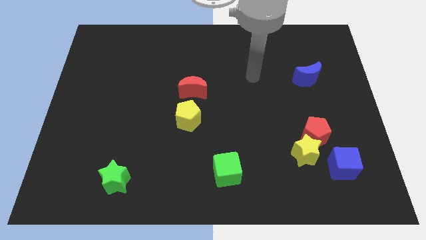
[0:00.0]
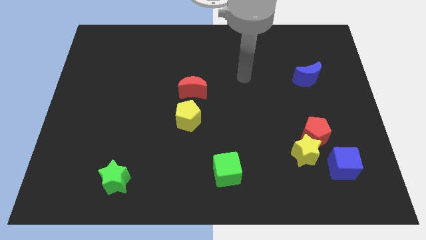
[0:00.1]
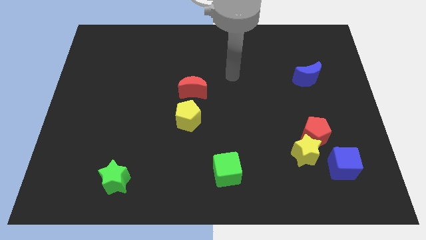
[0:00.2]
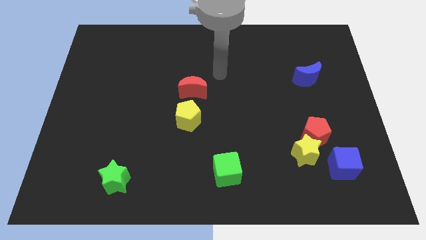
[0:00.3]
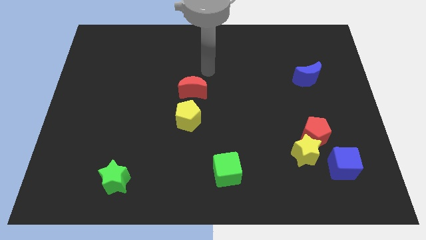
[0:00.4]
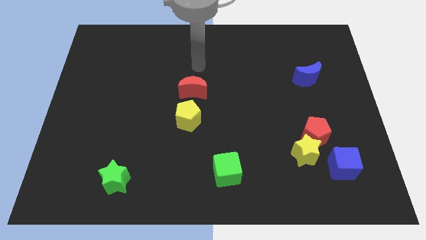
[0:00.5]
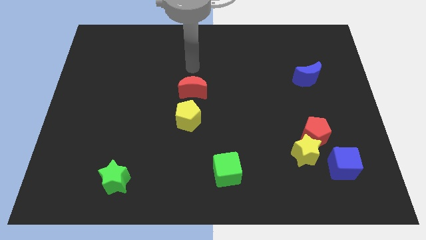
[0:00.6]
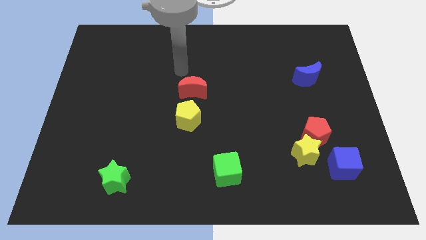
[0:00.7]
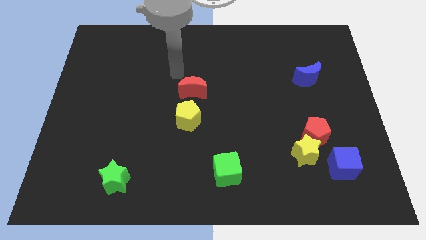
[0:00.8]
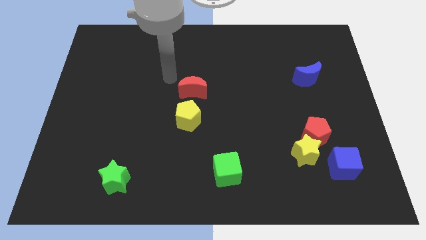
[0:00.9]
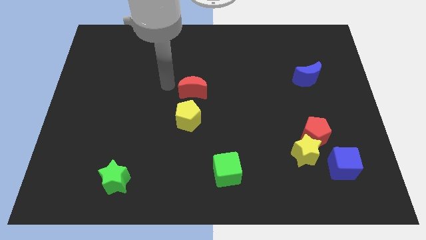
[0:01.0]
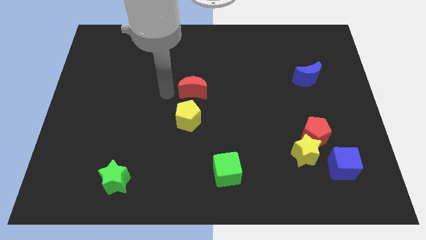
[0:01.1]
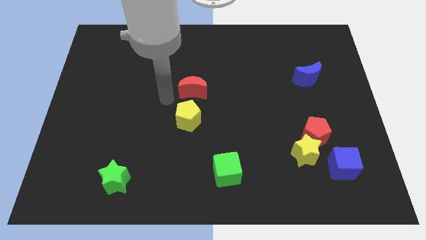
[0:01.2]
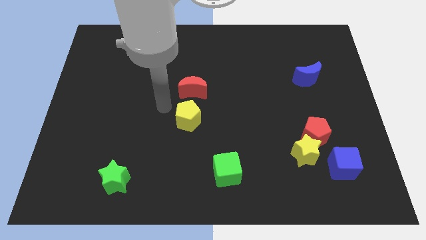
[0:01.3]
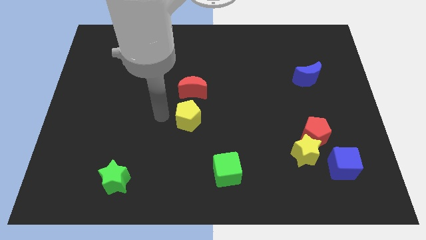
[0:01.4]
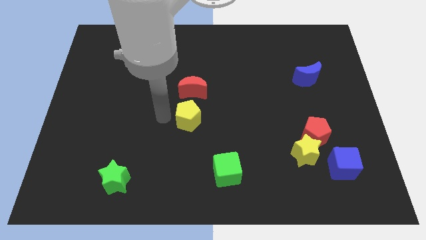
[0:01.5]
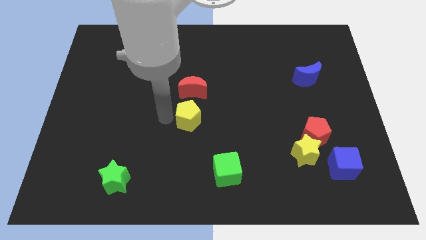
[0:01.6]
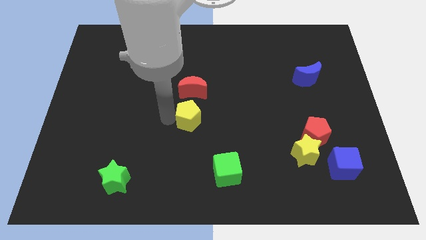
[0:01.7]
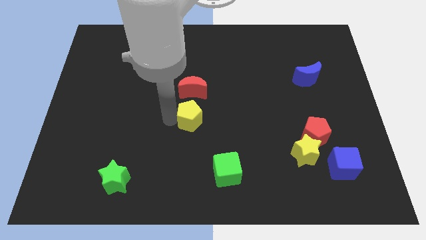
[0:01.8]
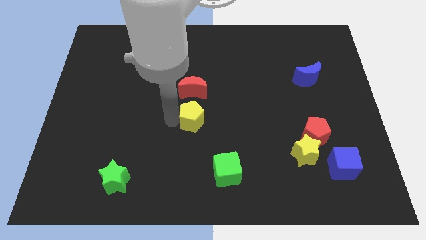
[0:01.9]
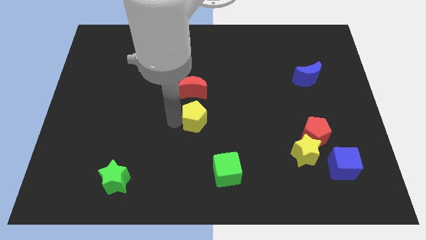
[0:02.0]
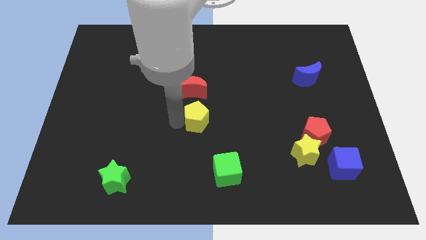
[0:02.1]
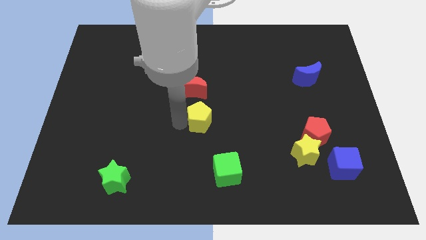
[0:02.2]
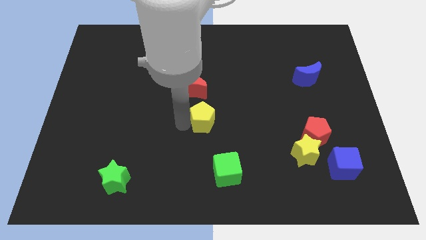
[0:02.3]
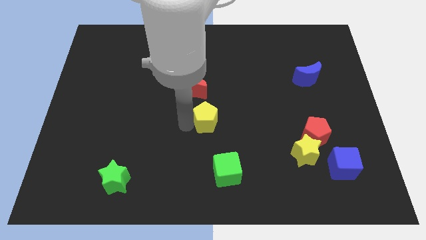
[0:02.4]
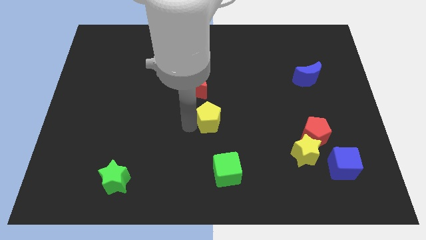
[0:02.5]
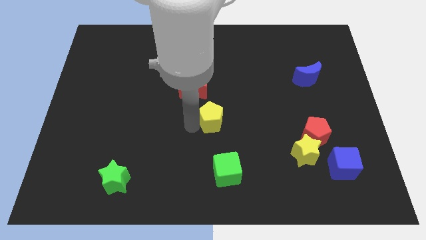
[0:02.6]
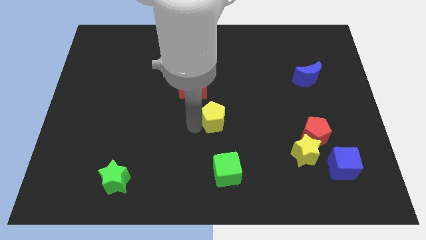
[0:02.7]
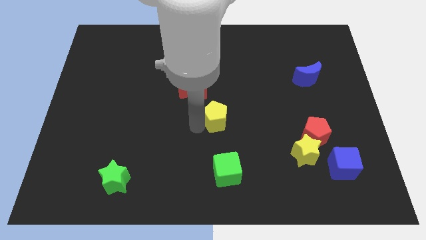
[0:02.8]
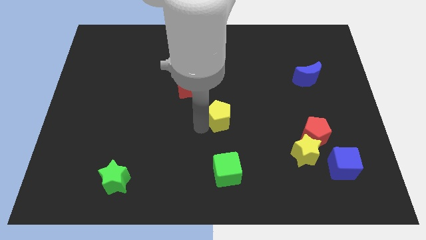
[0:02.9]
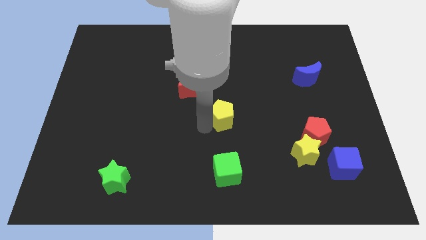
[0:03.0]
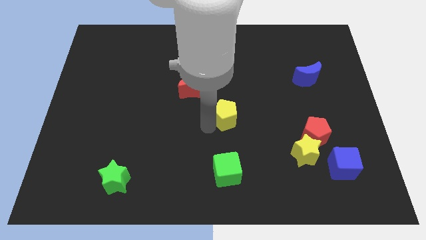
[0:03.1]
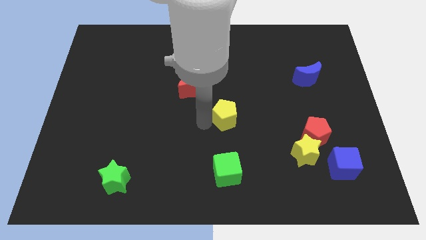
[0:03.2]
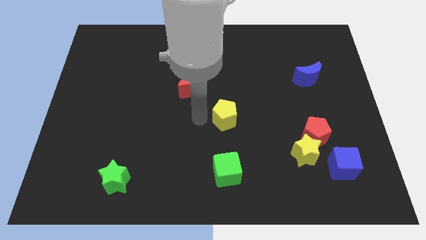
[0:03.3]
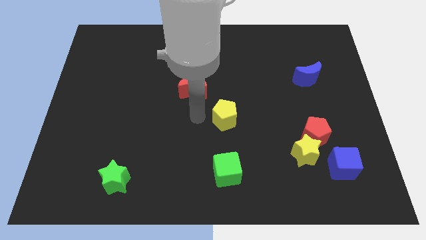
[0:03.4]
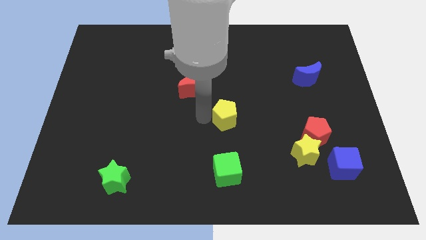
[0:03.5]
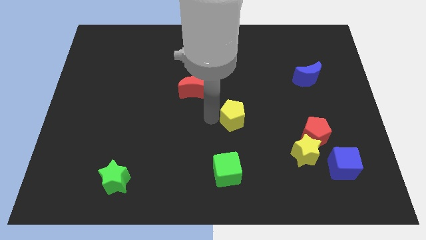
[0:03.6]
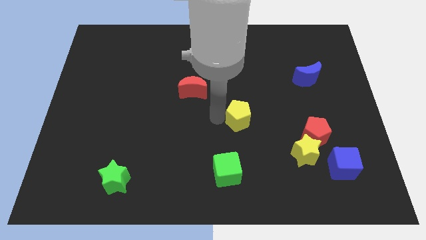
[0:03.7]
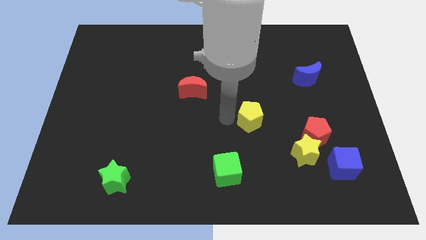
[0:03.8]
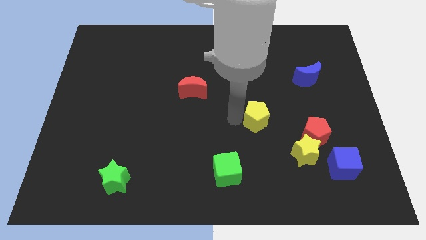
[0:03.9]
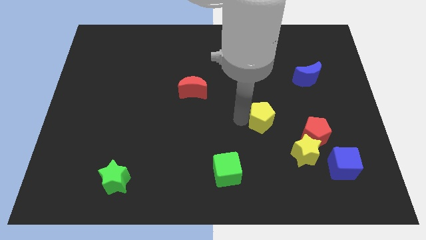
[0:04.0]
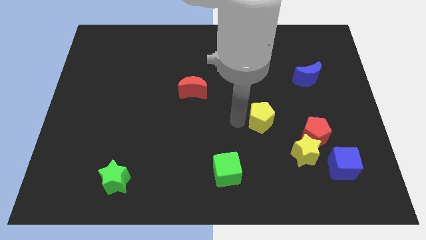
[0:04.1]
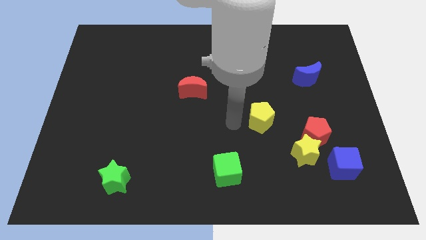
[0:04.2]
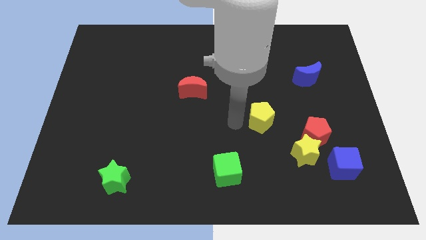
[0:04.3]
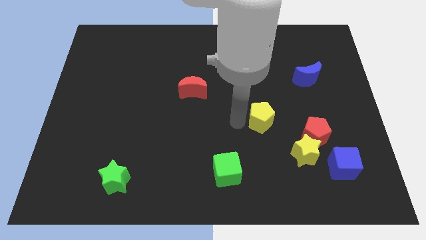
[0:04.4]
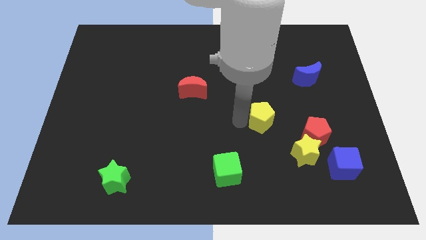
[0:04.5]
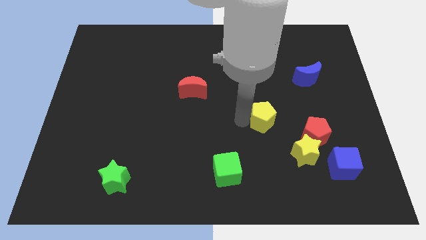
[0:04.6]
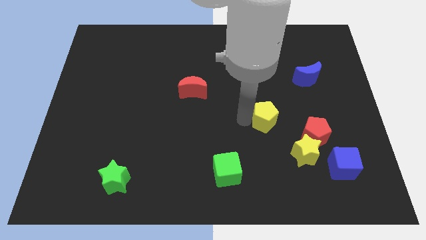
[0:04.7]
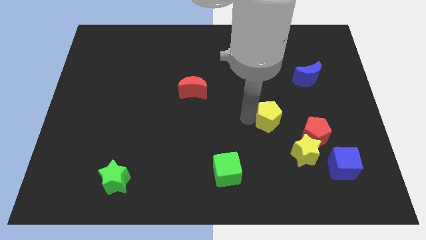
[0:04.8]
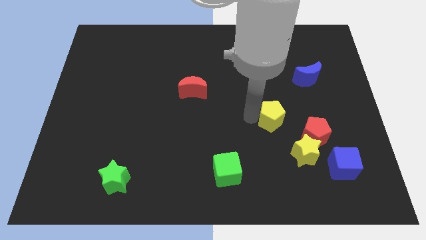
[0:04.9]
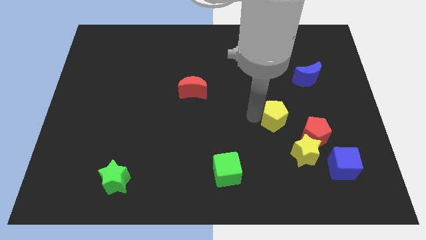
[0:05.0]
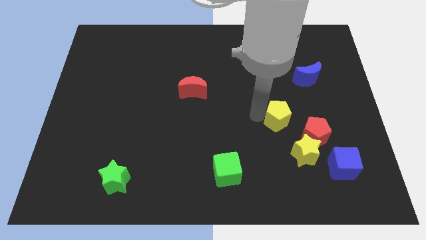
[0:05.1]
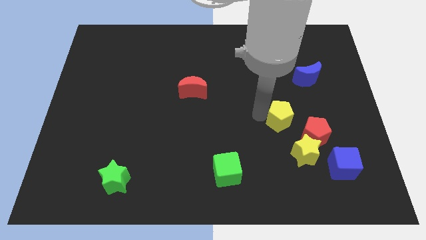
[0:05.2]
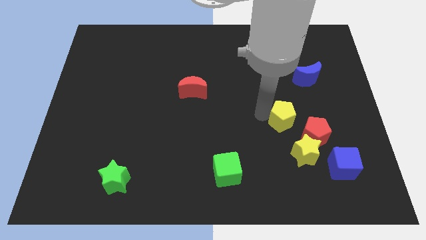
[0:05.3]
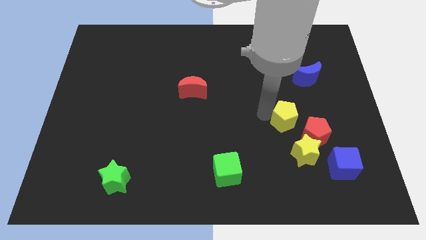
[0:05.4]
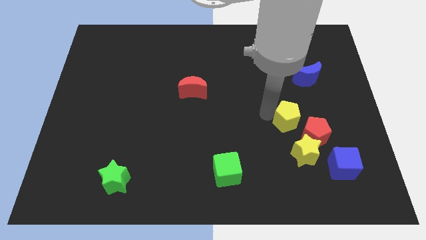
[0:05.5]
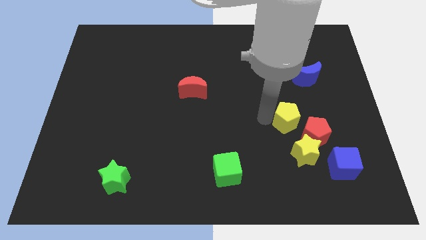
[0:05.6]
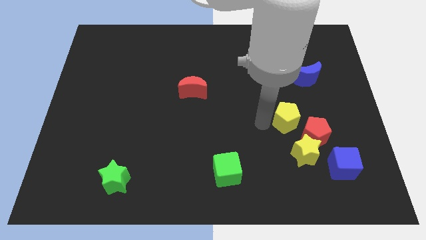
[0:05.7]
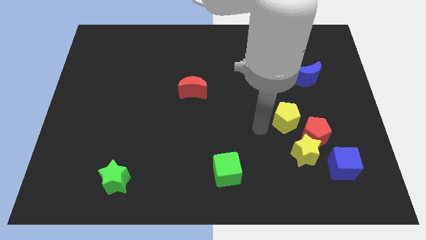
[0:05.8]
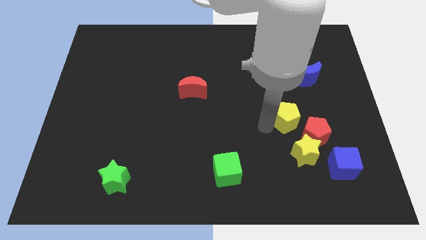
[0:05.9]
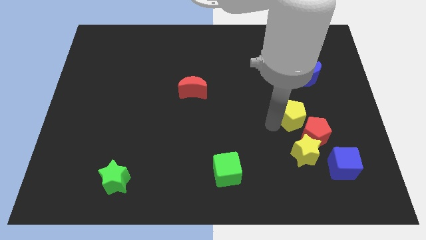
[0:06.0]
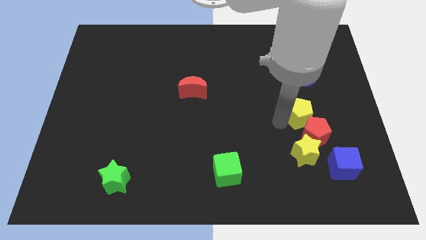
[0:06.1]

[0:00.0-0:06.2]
move the yellow pentagon to the bottom of the blue moon

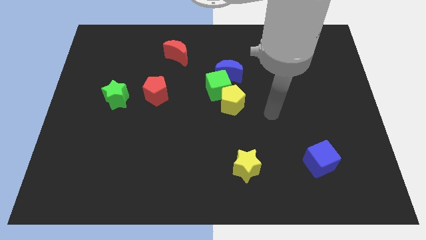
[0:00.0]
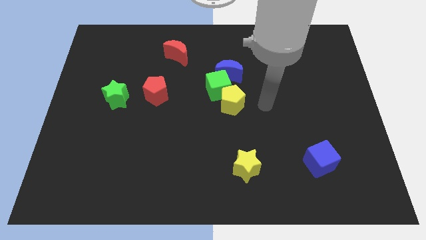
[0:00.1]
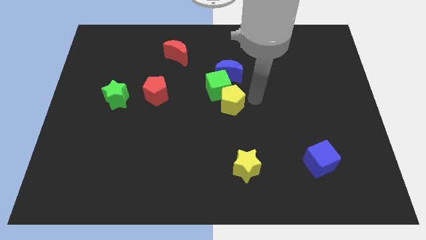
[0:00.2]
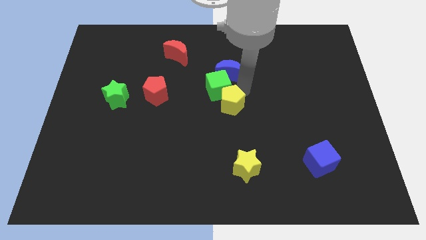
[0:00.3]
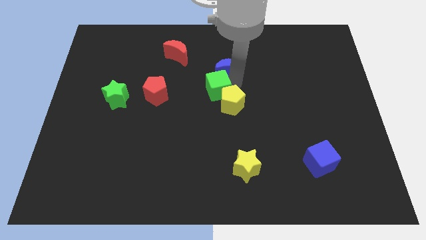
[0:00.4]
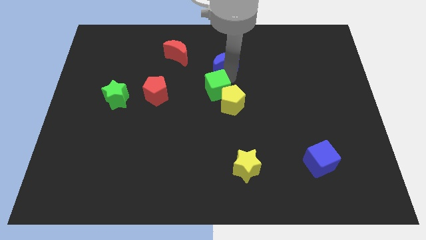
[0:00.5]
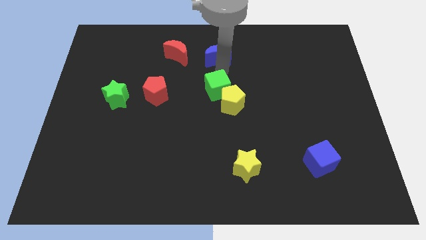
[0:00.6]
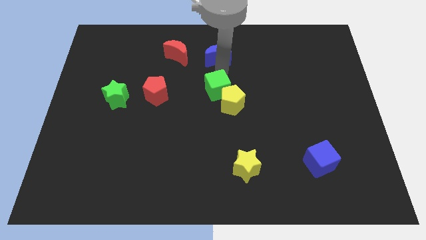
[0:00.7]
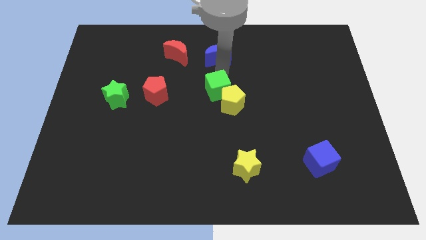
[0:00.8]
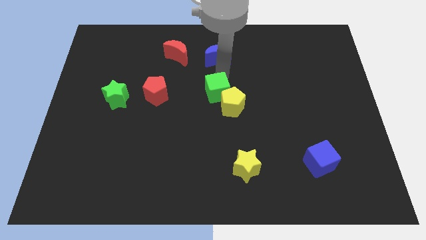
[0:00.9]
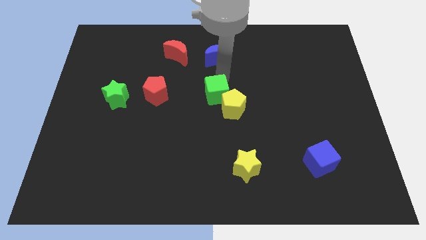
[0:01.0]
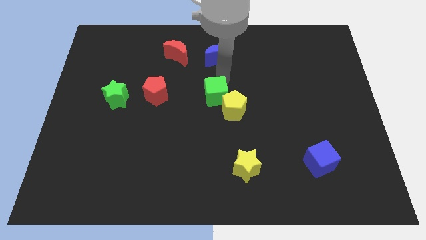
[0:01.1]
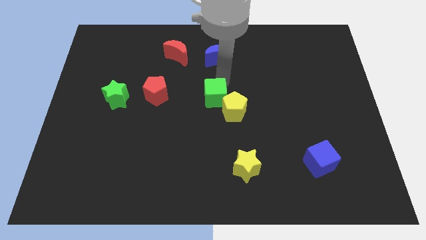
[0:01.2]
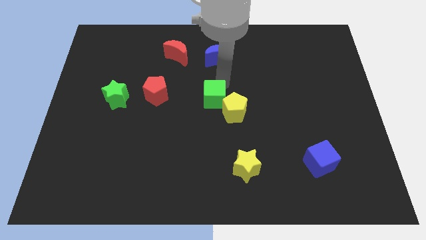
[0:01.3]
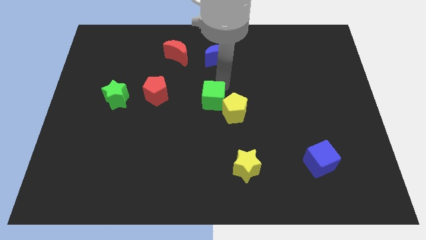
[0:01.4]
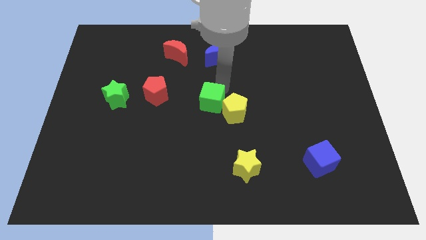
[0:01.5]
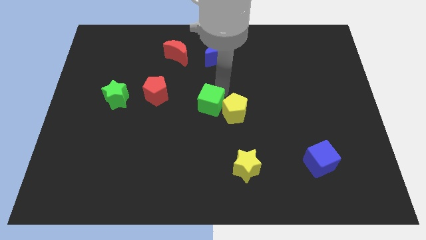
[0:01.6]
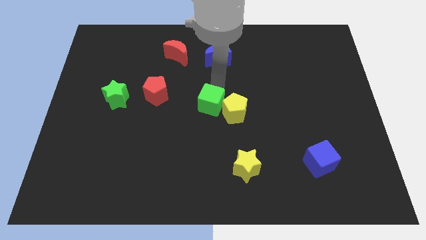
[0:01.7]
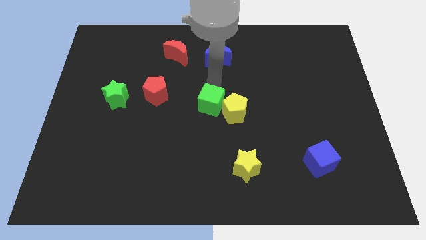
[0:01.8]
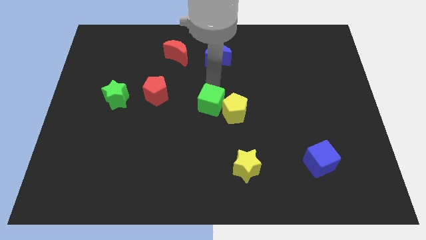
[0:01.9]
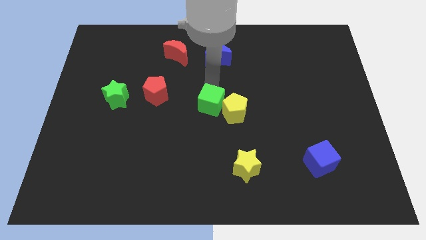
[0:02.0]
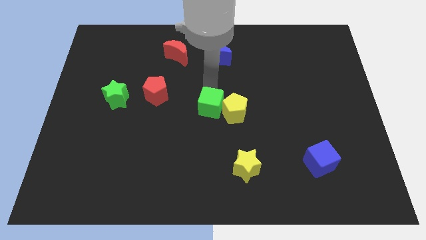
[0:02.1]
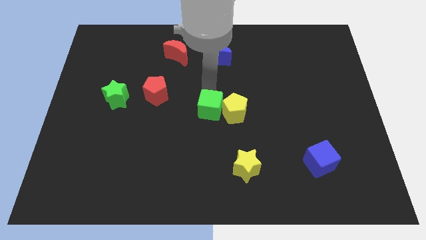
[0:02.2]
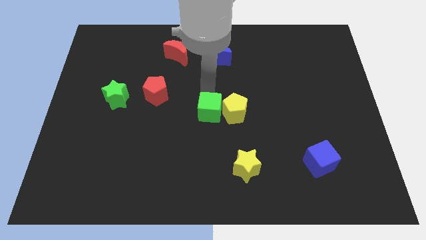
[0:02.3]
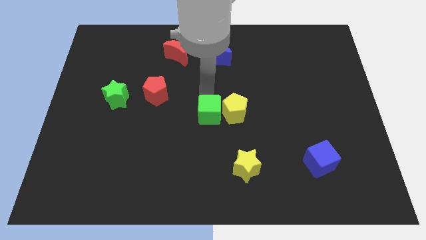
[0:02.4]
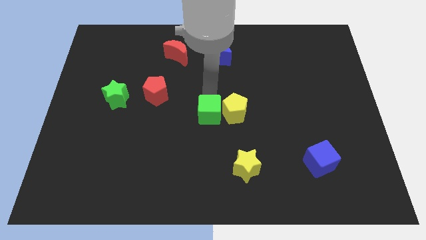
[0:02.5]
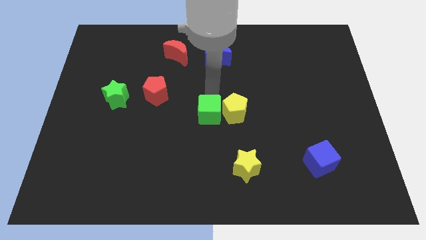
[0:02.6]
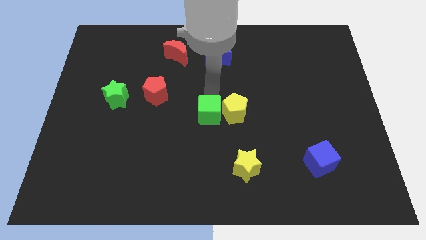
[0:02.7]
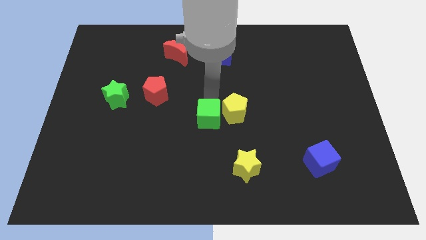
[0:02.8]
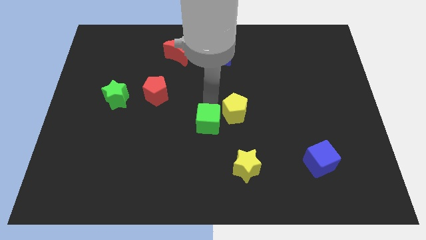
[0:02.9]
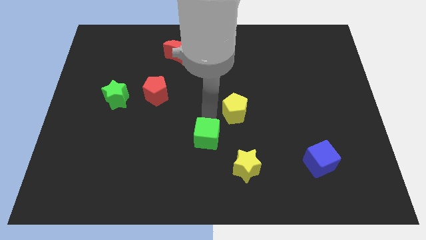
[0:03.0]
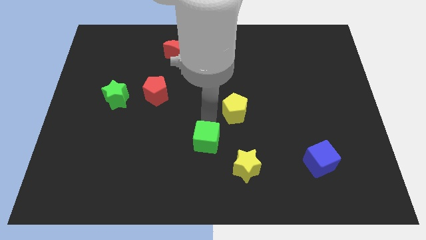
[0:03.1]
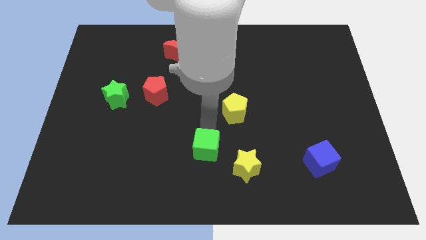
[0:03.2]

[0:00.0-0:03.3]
move the green cube just left of the yellow star
